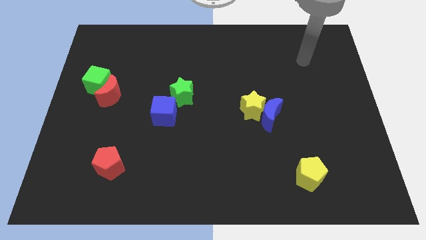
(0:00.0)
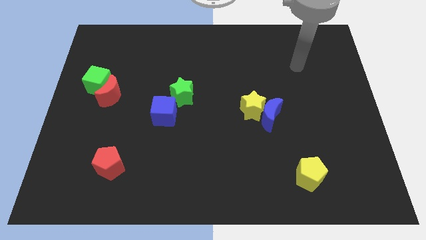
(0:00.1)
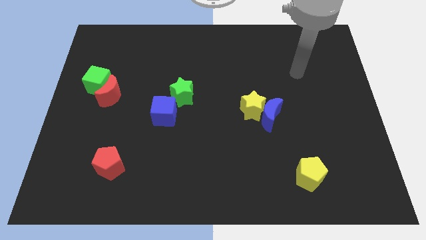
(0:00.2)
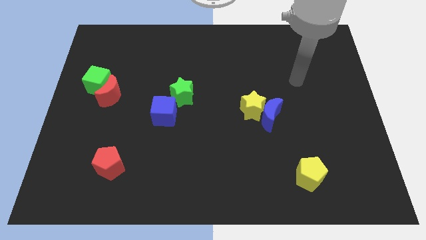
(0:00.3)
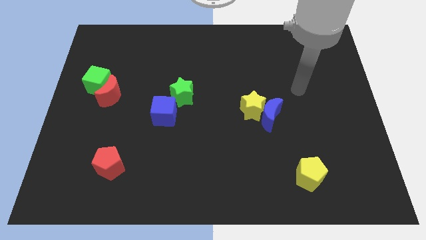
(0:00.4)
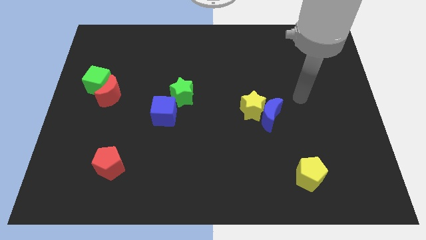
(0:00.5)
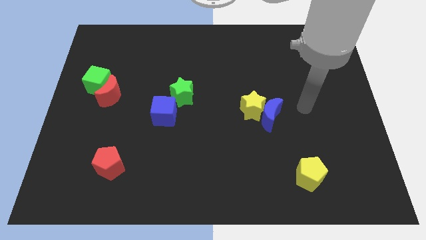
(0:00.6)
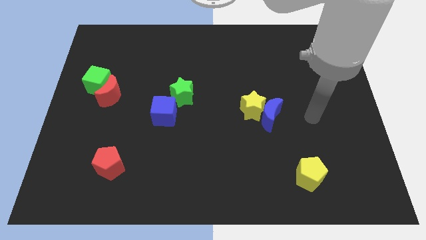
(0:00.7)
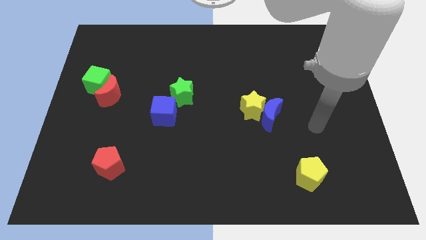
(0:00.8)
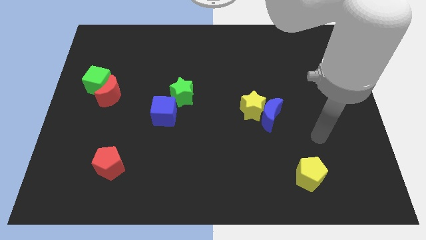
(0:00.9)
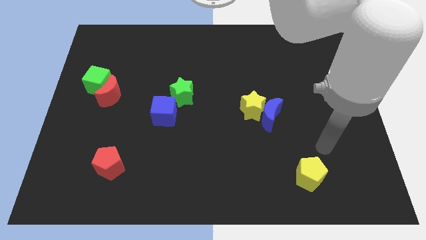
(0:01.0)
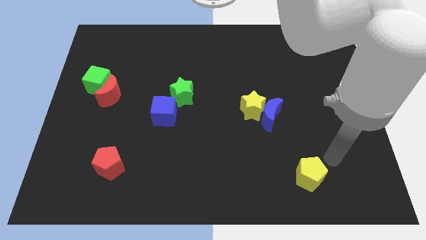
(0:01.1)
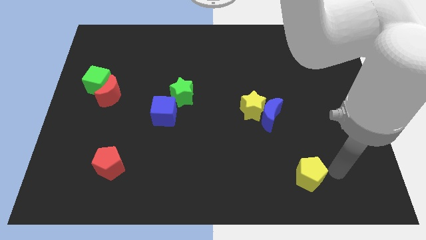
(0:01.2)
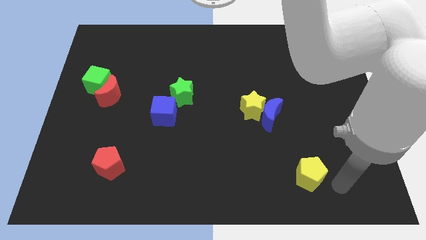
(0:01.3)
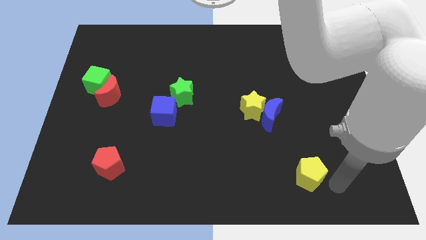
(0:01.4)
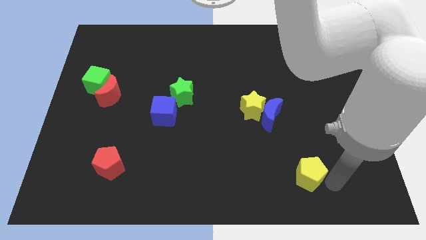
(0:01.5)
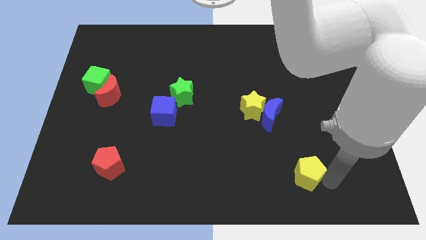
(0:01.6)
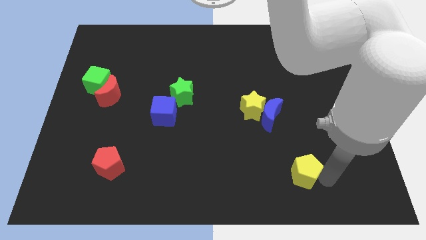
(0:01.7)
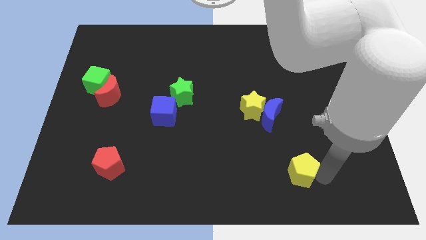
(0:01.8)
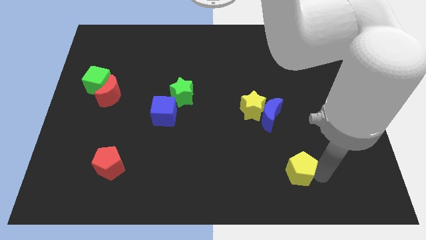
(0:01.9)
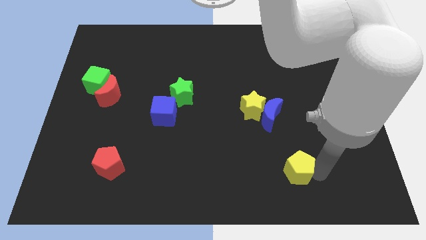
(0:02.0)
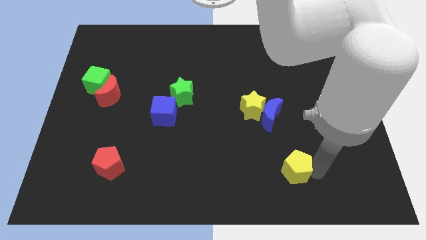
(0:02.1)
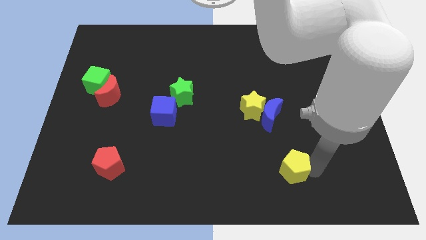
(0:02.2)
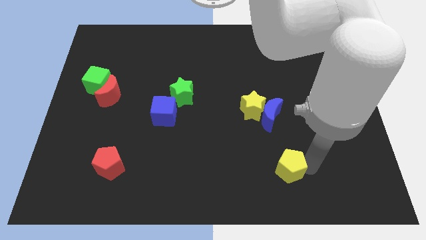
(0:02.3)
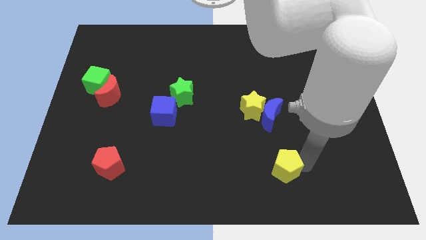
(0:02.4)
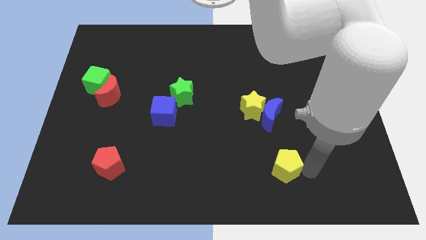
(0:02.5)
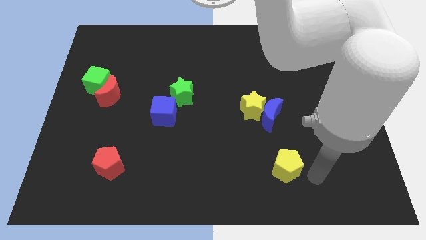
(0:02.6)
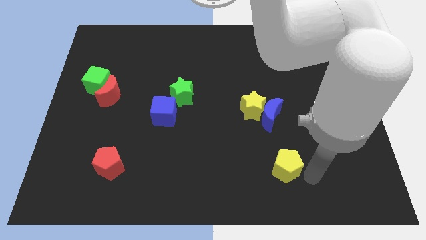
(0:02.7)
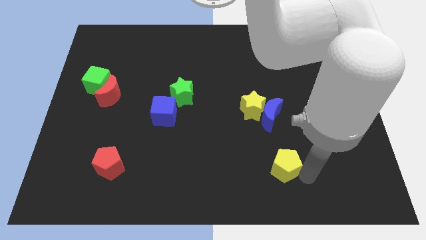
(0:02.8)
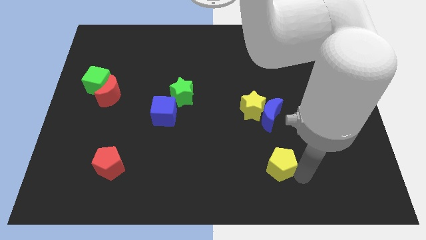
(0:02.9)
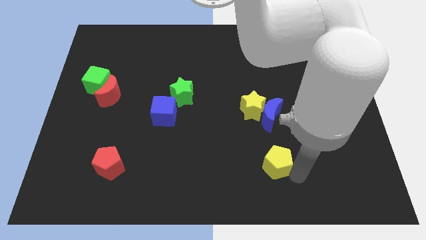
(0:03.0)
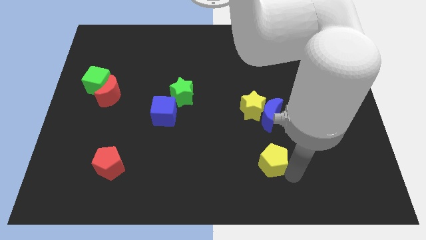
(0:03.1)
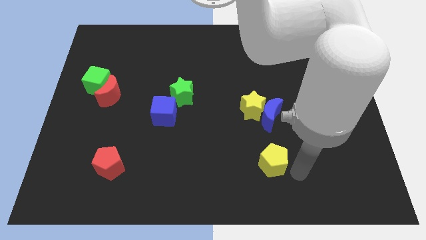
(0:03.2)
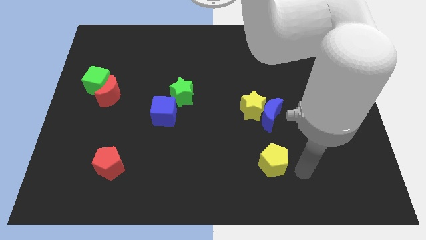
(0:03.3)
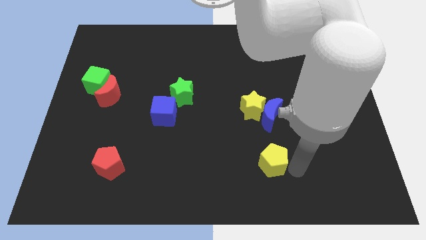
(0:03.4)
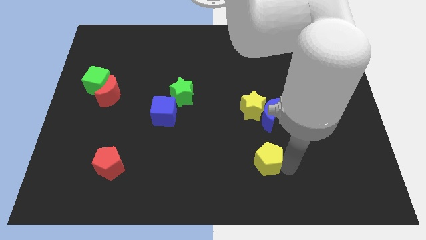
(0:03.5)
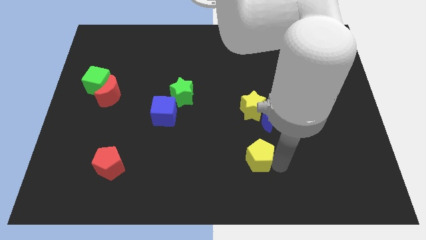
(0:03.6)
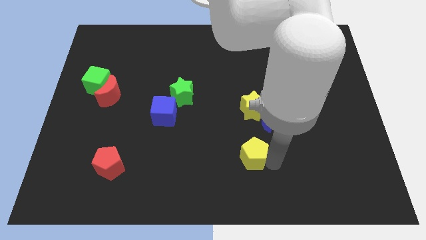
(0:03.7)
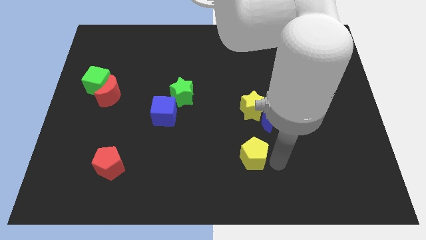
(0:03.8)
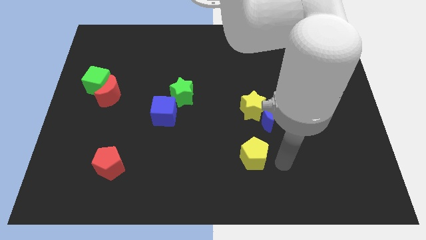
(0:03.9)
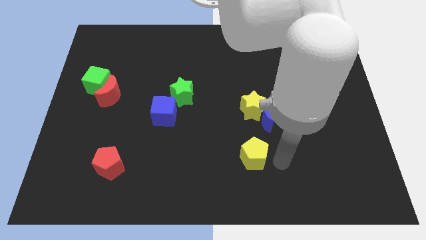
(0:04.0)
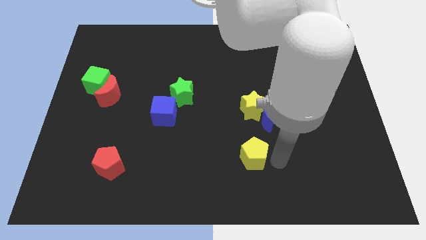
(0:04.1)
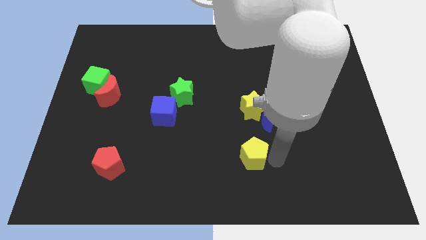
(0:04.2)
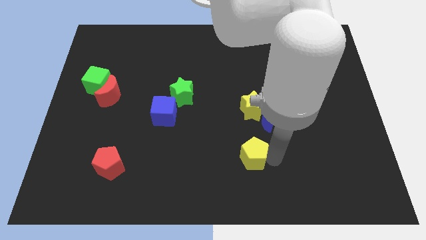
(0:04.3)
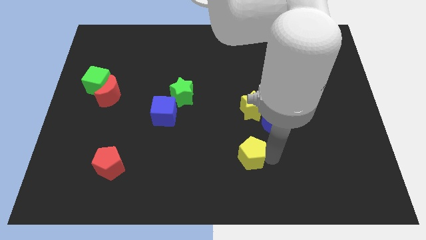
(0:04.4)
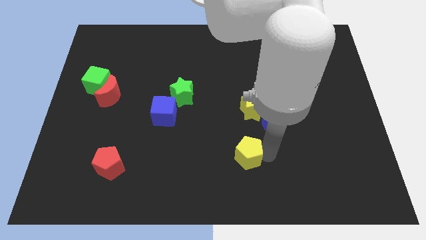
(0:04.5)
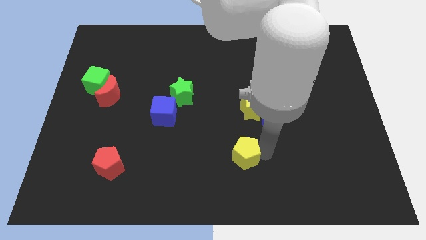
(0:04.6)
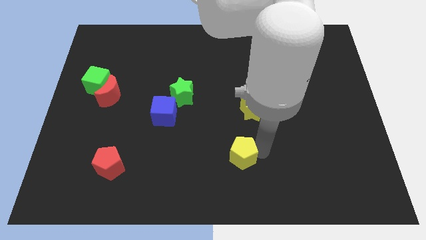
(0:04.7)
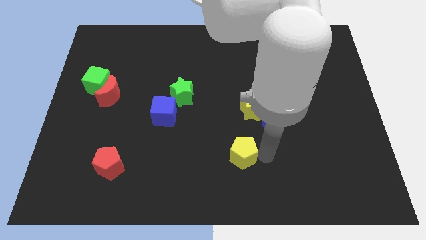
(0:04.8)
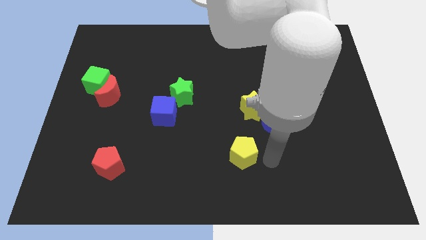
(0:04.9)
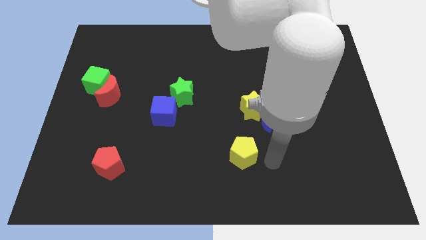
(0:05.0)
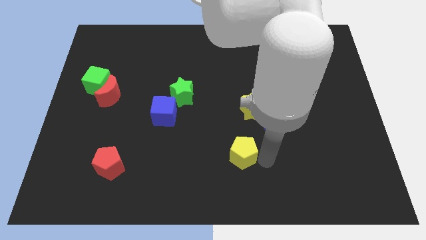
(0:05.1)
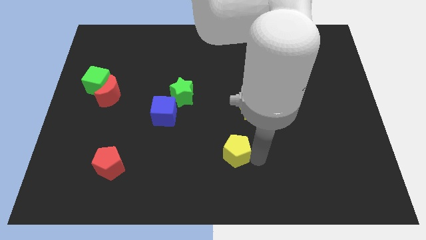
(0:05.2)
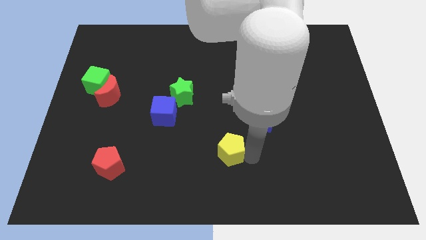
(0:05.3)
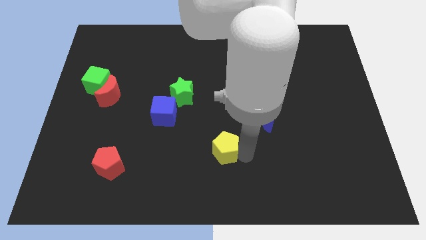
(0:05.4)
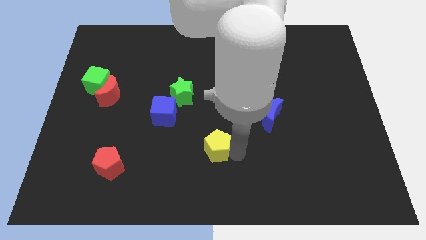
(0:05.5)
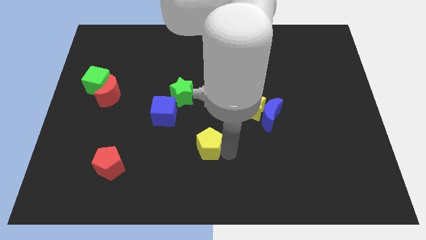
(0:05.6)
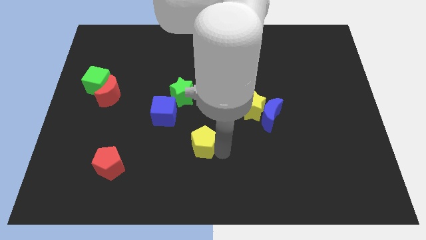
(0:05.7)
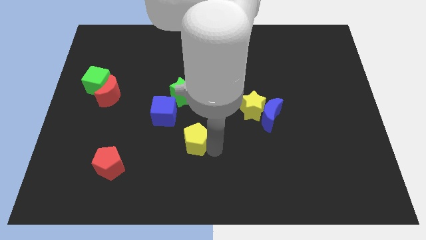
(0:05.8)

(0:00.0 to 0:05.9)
put the yellow pentagon to the bottom side of the green star

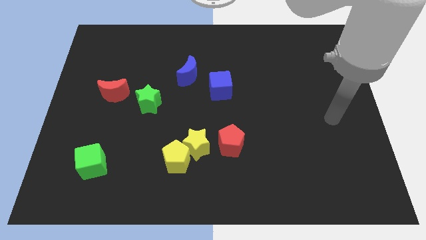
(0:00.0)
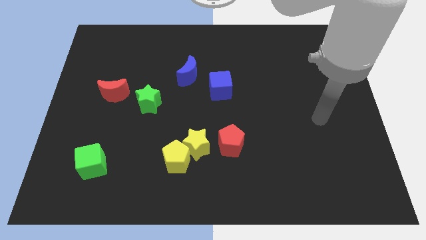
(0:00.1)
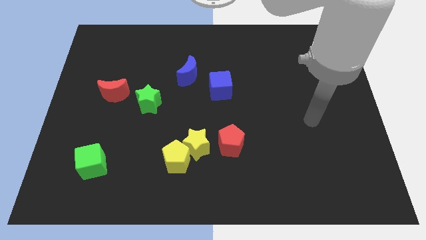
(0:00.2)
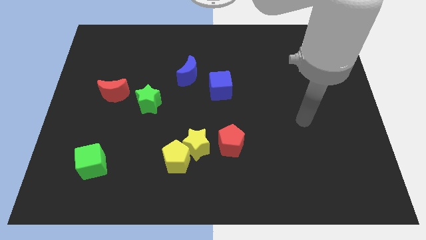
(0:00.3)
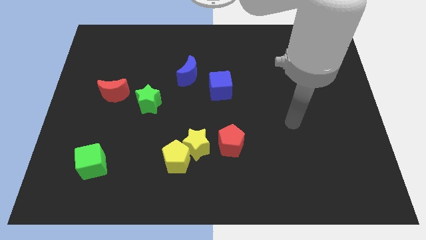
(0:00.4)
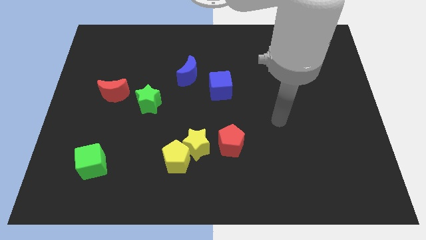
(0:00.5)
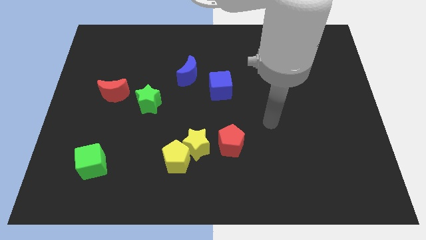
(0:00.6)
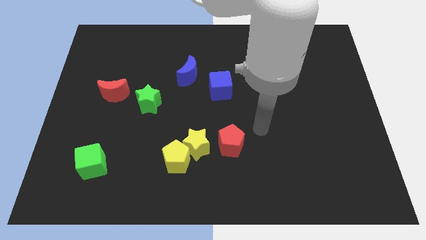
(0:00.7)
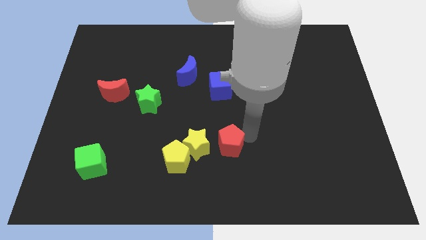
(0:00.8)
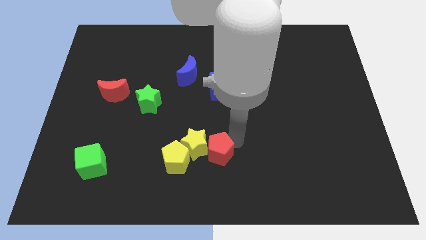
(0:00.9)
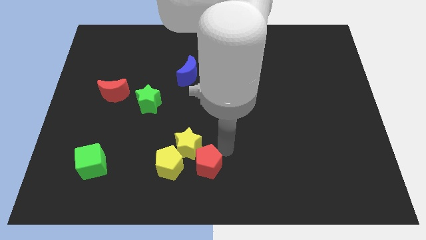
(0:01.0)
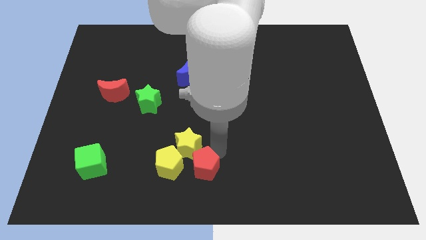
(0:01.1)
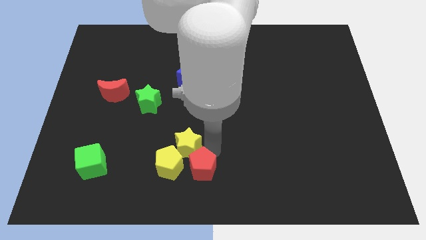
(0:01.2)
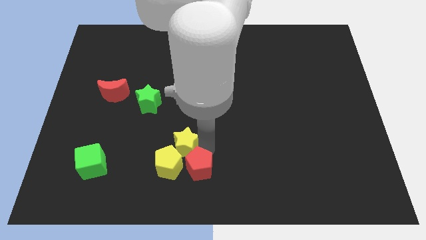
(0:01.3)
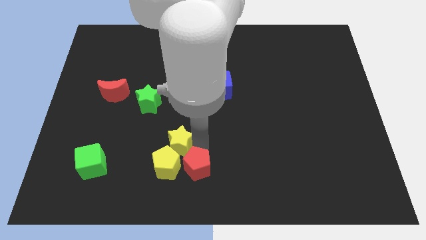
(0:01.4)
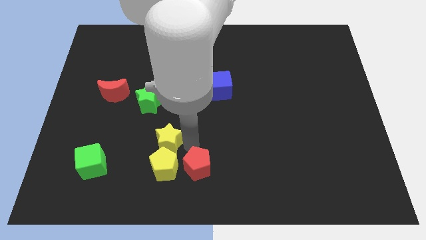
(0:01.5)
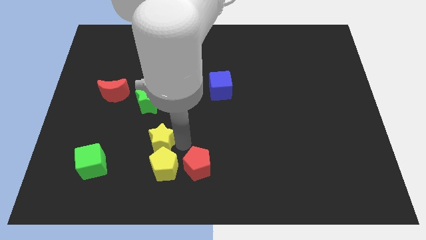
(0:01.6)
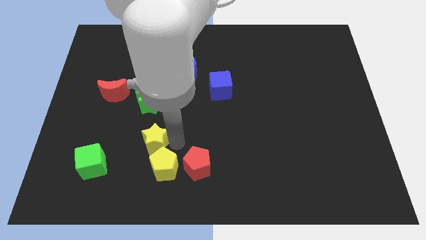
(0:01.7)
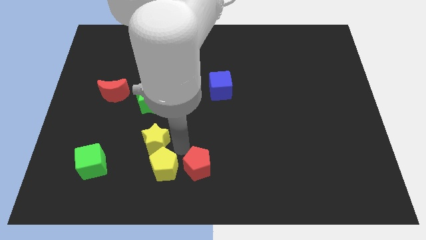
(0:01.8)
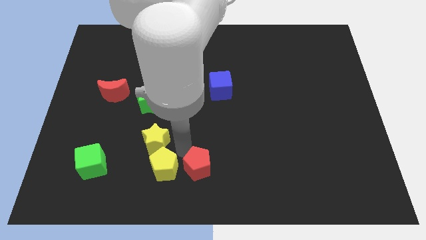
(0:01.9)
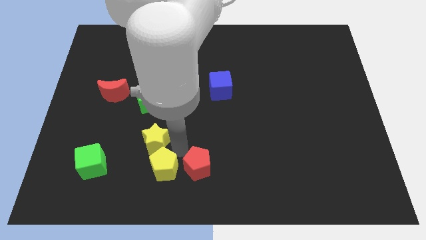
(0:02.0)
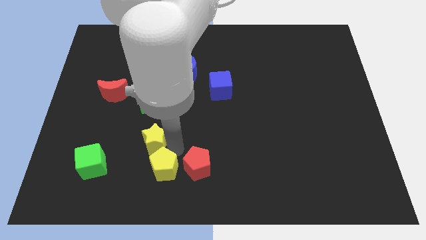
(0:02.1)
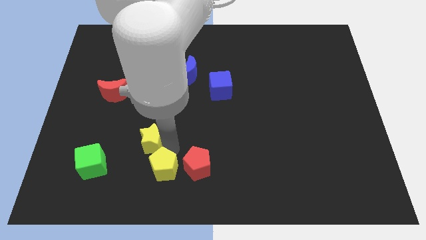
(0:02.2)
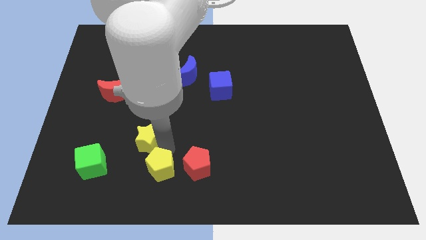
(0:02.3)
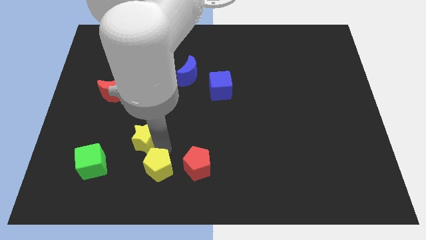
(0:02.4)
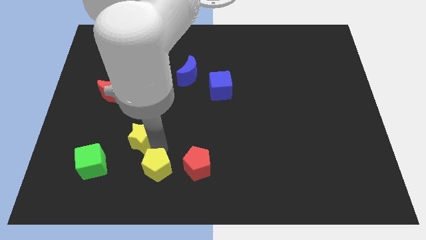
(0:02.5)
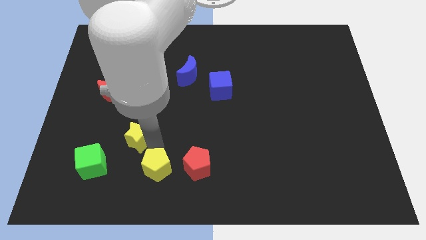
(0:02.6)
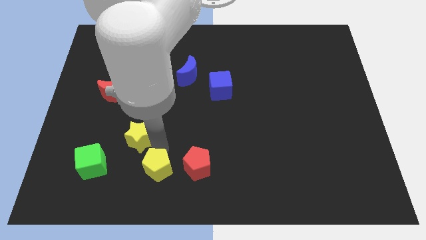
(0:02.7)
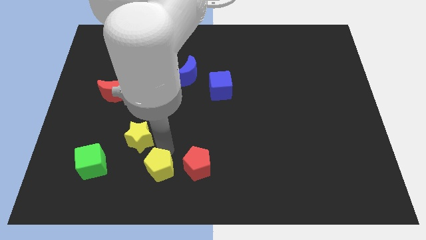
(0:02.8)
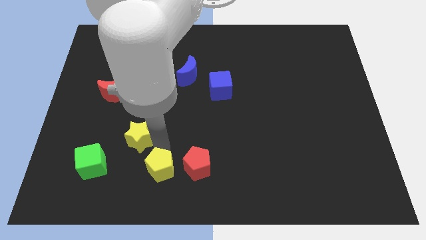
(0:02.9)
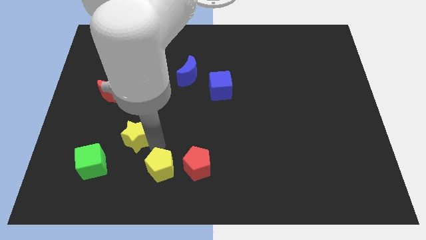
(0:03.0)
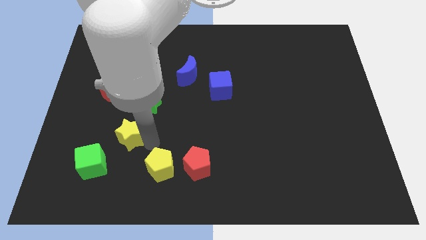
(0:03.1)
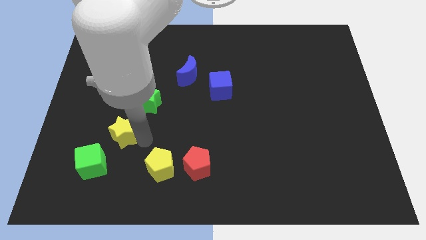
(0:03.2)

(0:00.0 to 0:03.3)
move the yellow star to the bottom side of the red moon
